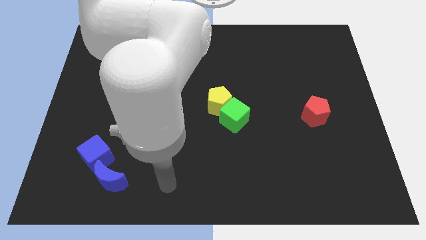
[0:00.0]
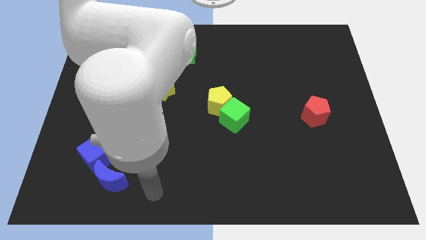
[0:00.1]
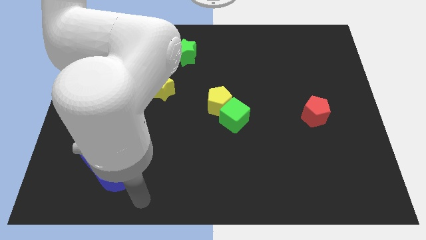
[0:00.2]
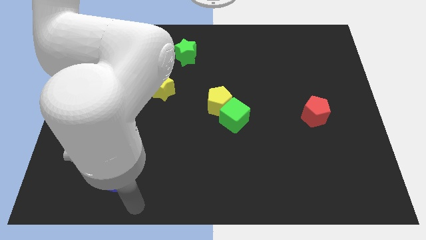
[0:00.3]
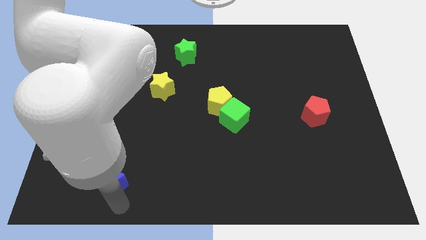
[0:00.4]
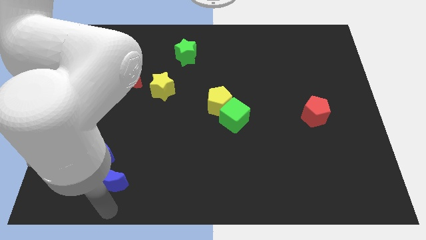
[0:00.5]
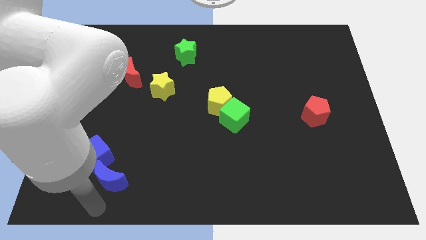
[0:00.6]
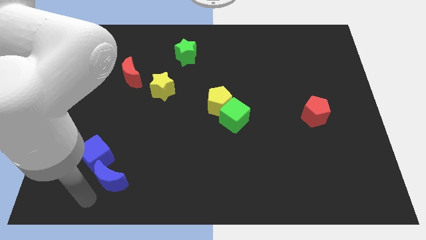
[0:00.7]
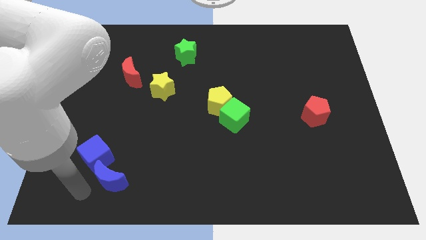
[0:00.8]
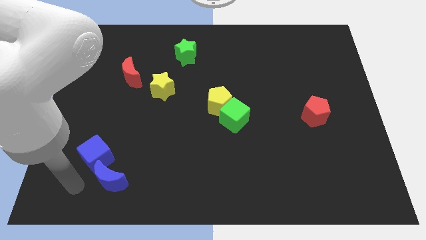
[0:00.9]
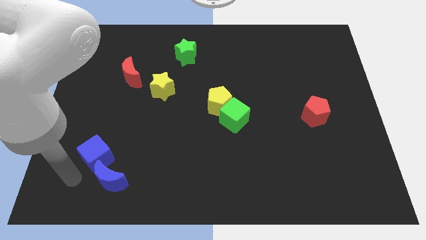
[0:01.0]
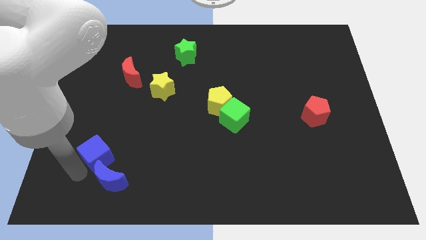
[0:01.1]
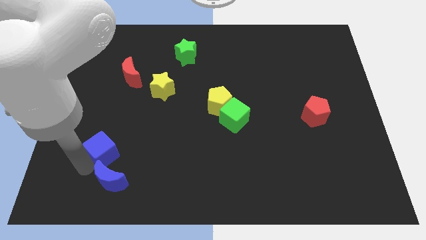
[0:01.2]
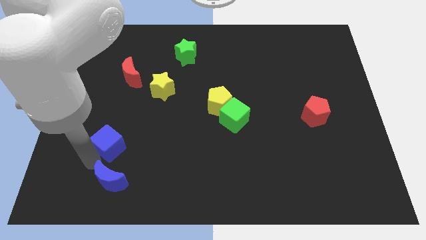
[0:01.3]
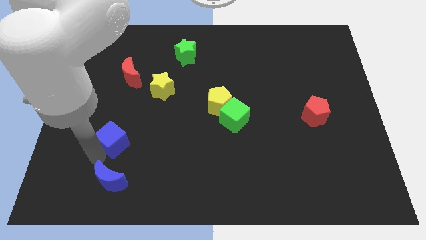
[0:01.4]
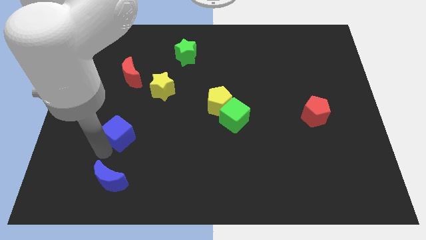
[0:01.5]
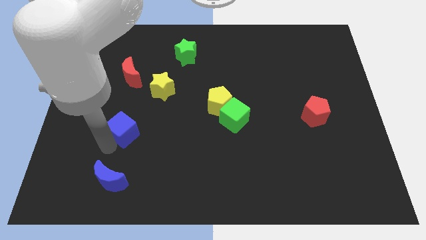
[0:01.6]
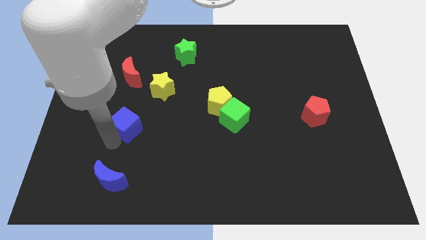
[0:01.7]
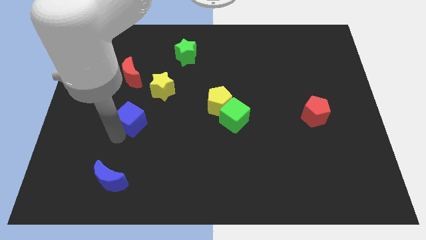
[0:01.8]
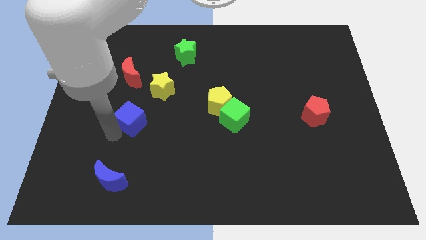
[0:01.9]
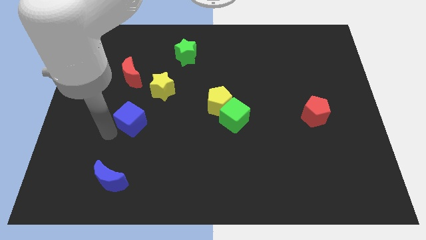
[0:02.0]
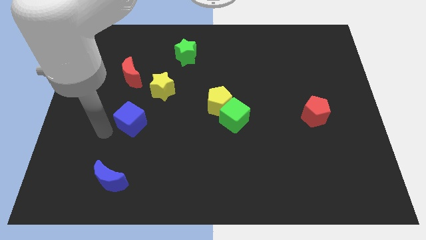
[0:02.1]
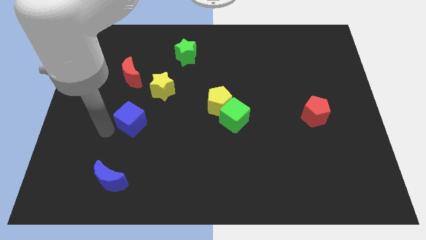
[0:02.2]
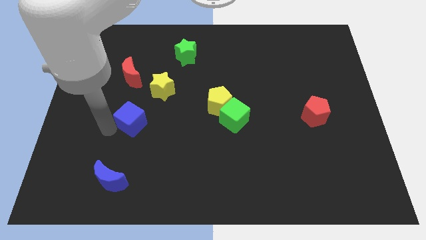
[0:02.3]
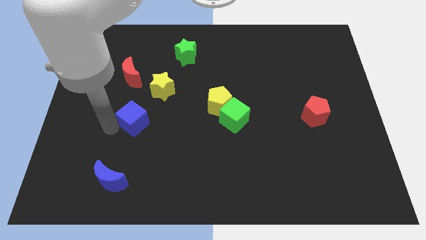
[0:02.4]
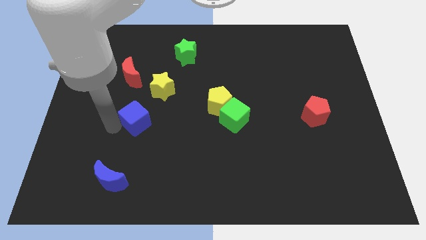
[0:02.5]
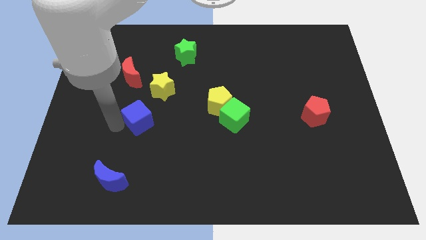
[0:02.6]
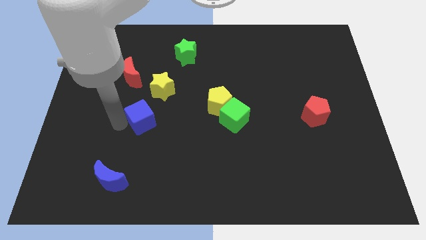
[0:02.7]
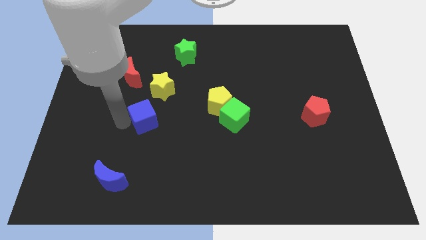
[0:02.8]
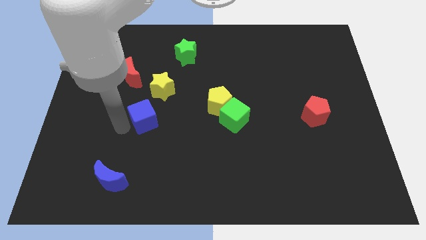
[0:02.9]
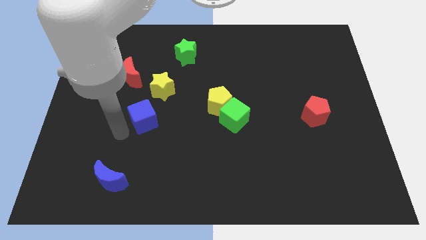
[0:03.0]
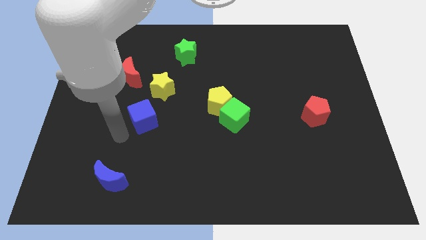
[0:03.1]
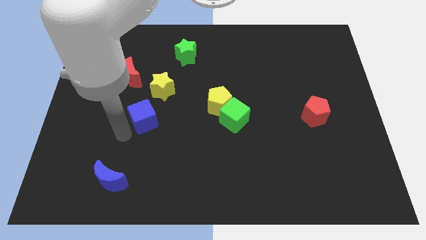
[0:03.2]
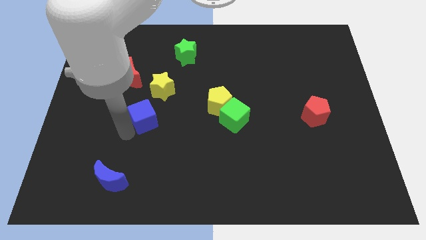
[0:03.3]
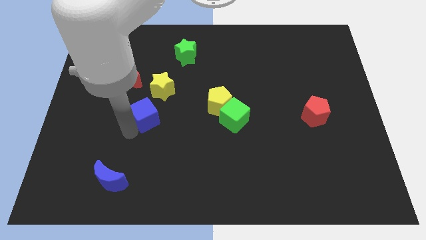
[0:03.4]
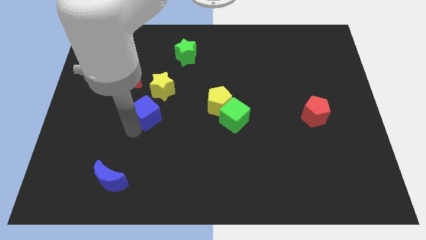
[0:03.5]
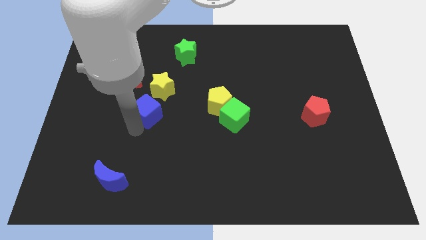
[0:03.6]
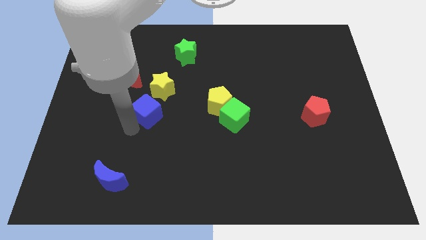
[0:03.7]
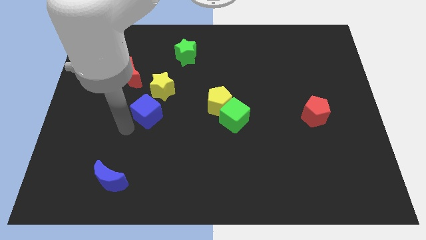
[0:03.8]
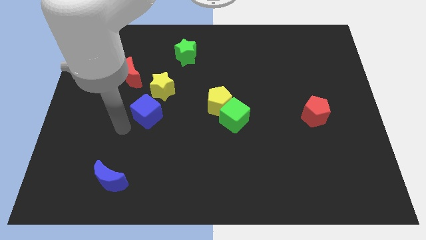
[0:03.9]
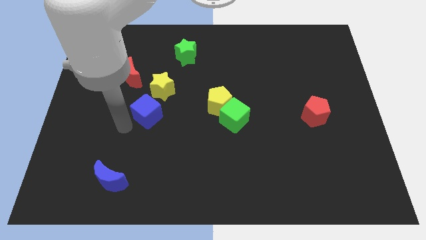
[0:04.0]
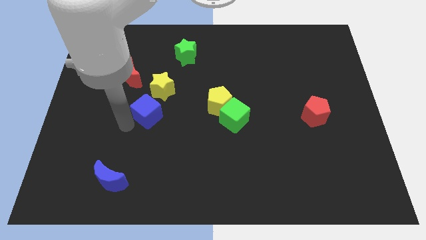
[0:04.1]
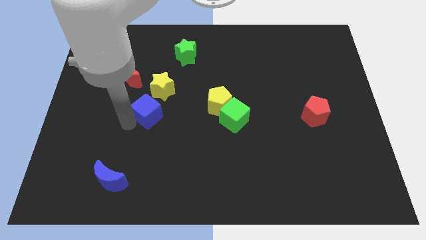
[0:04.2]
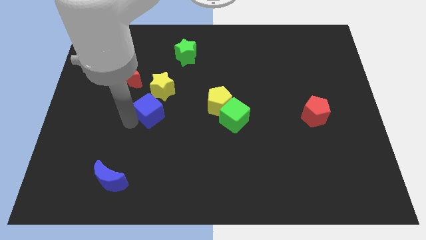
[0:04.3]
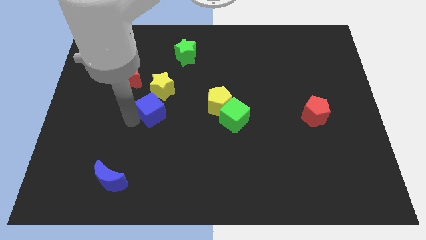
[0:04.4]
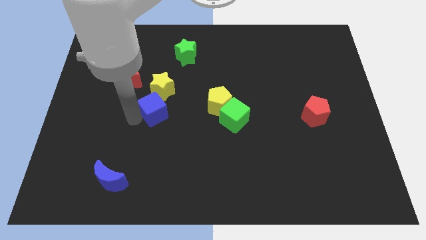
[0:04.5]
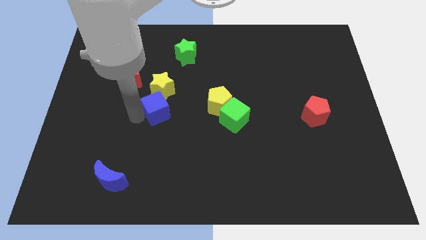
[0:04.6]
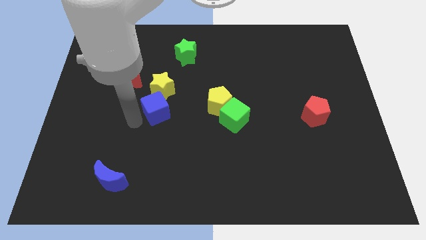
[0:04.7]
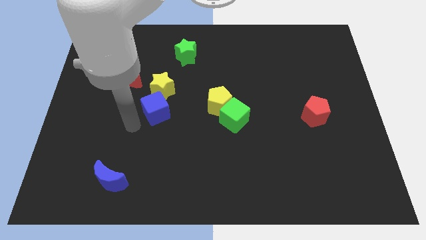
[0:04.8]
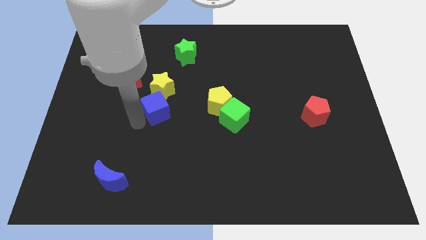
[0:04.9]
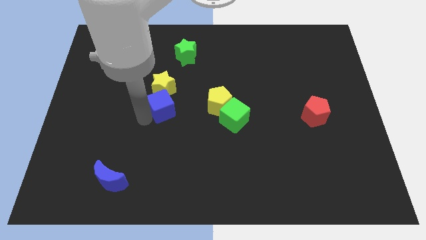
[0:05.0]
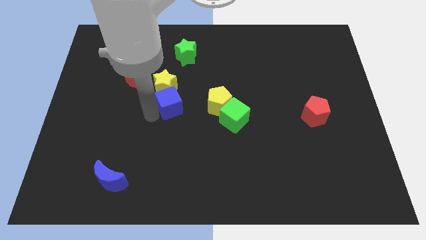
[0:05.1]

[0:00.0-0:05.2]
slide the blue cube up and right diagonally

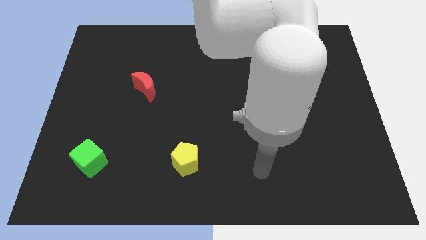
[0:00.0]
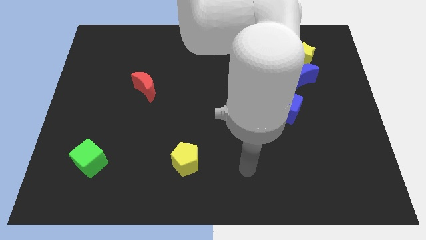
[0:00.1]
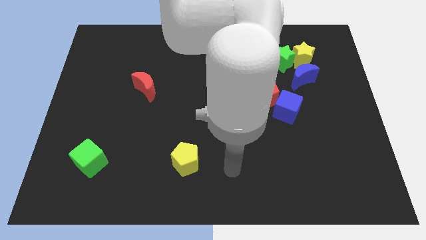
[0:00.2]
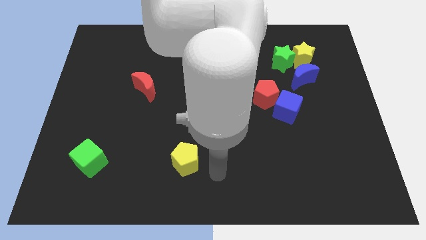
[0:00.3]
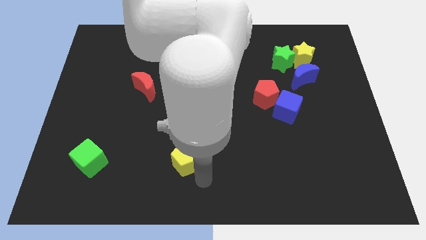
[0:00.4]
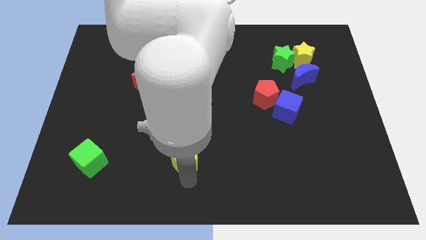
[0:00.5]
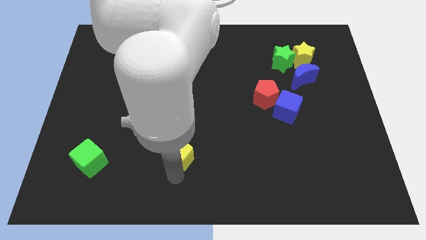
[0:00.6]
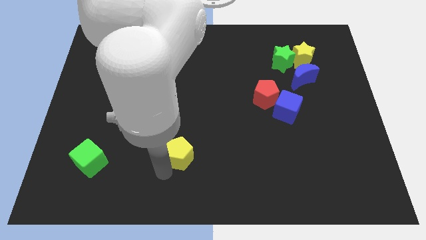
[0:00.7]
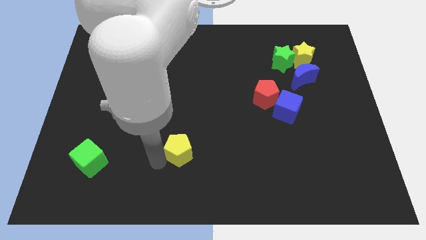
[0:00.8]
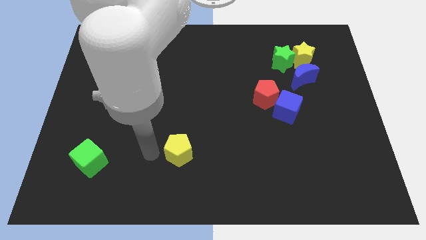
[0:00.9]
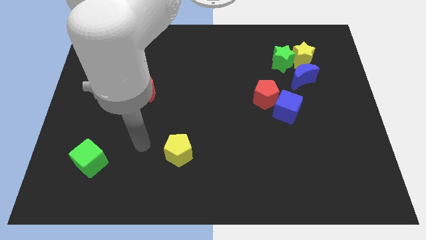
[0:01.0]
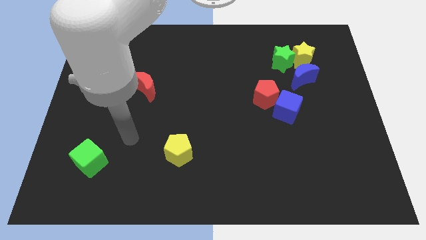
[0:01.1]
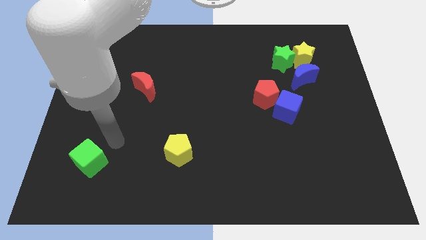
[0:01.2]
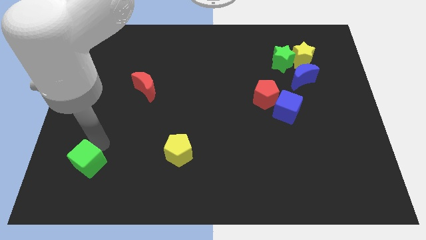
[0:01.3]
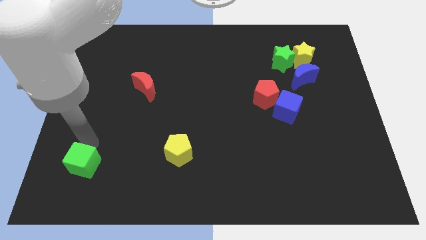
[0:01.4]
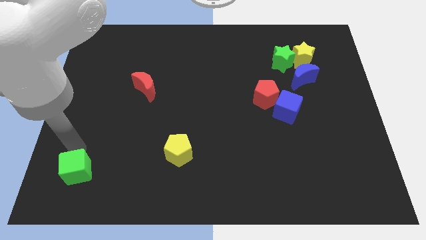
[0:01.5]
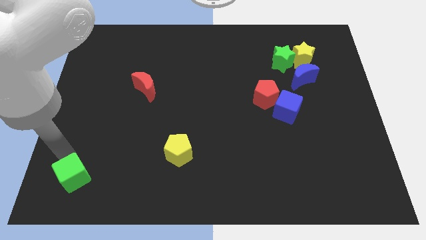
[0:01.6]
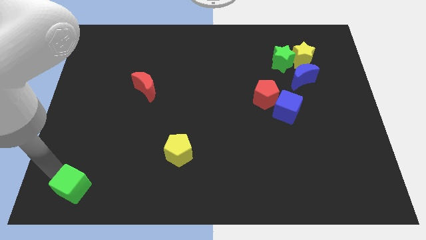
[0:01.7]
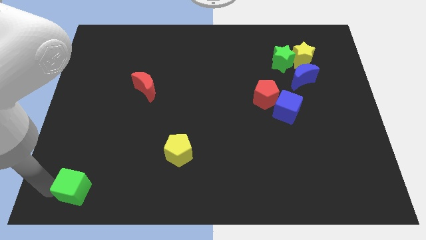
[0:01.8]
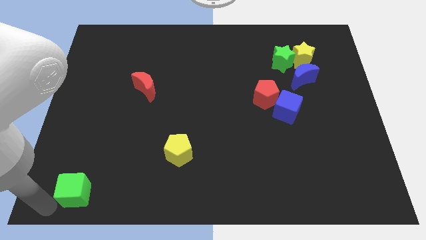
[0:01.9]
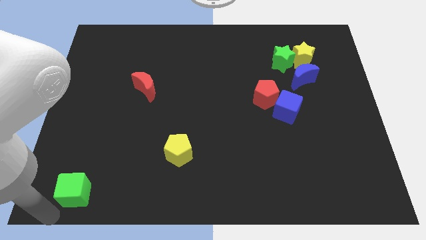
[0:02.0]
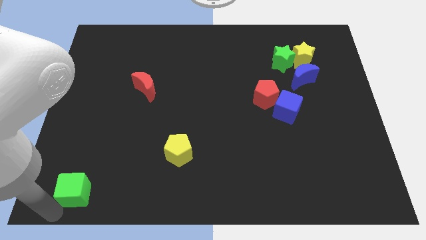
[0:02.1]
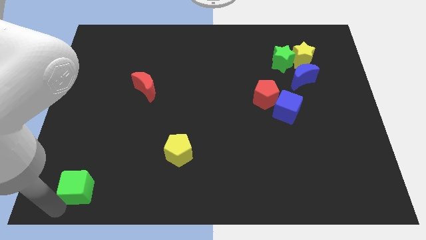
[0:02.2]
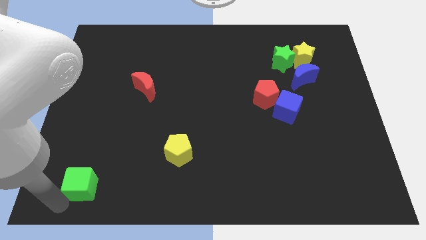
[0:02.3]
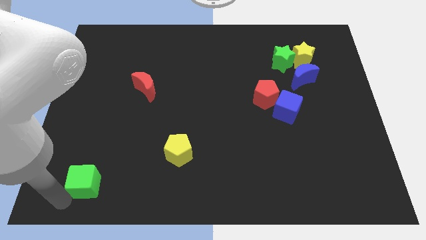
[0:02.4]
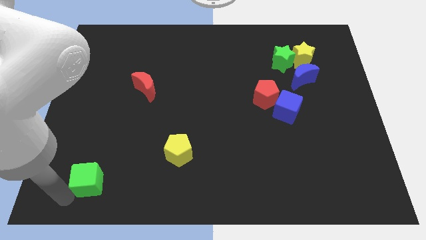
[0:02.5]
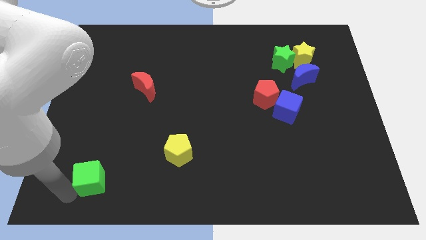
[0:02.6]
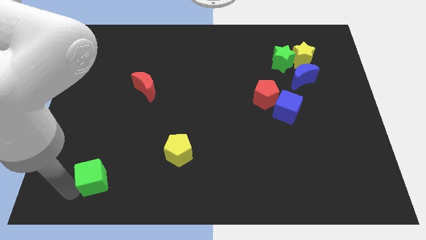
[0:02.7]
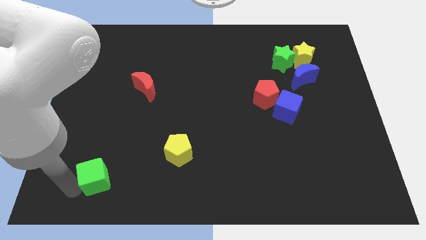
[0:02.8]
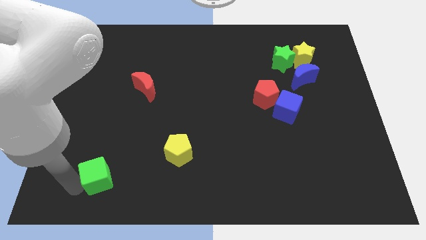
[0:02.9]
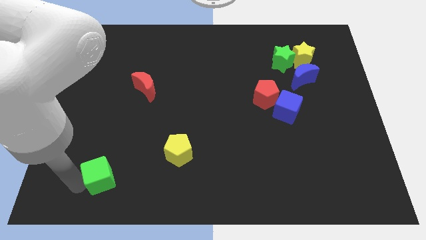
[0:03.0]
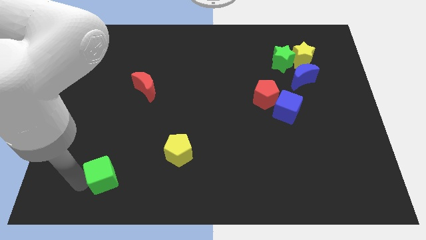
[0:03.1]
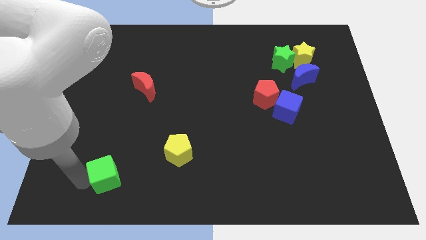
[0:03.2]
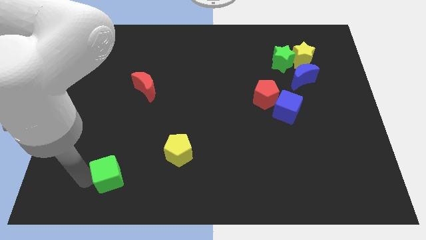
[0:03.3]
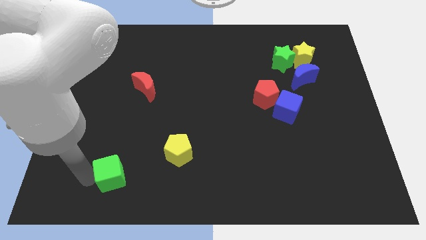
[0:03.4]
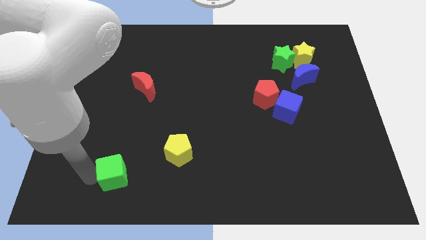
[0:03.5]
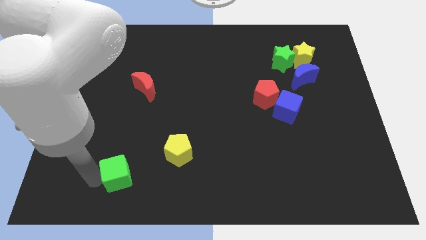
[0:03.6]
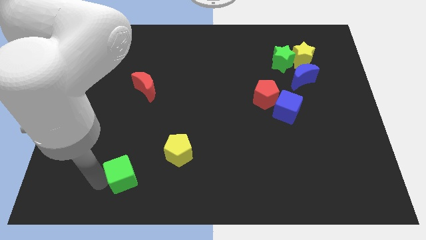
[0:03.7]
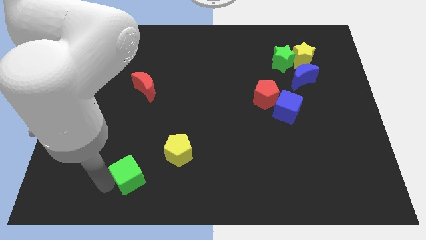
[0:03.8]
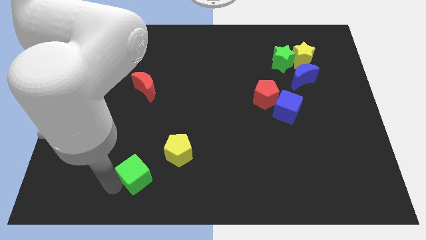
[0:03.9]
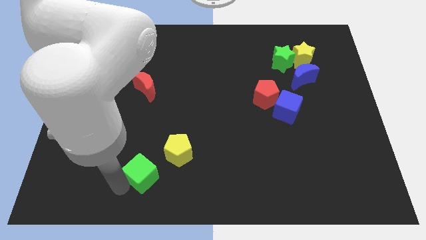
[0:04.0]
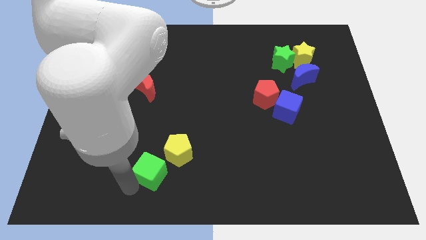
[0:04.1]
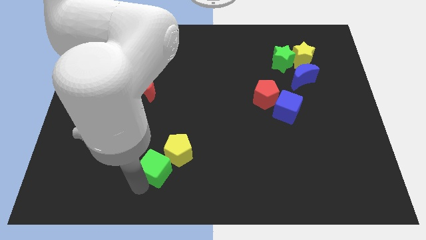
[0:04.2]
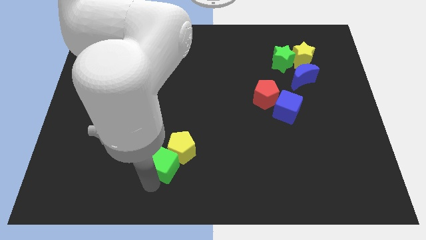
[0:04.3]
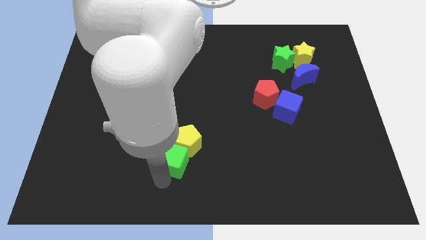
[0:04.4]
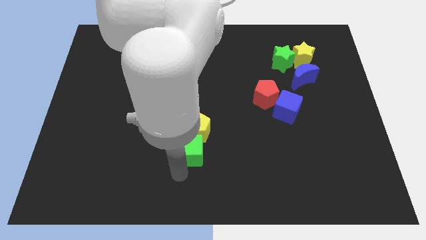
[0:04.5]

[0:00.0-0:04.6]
push the green cube to the right
